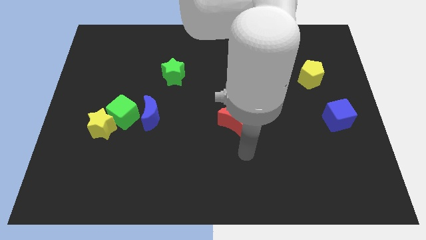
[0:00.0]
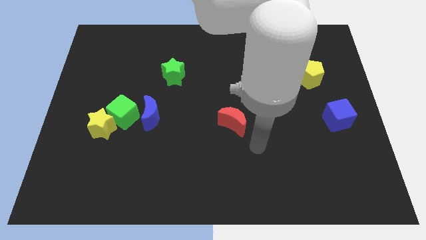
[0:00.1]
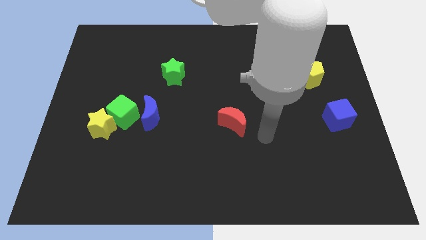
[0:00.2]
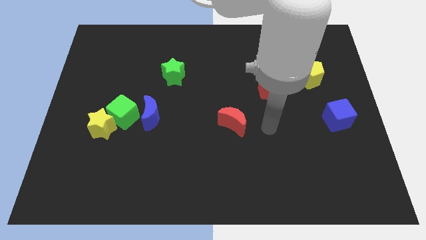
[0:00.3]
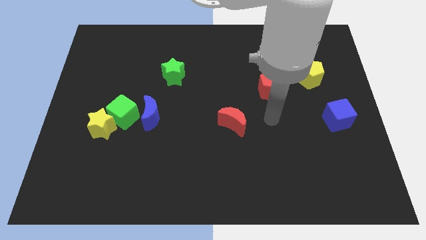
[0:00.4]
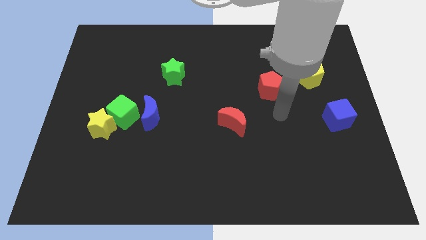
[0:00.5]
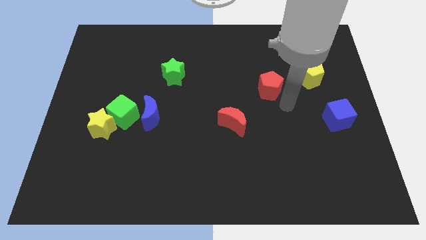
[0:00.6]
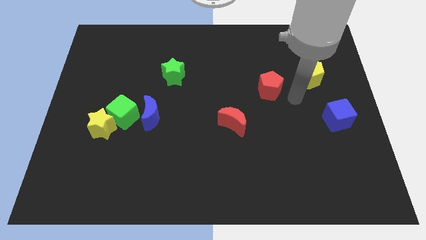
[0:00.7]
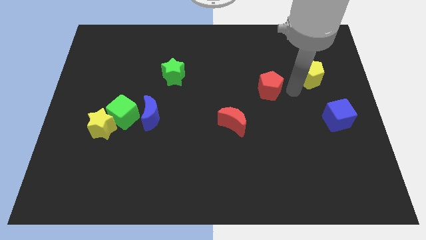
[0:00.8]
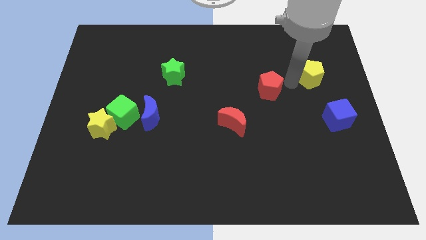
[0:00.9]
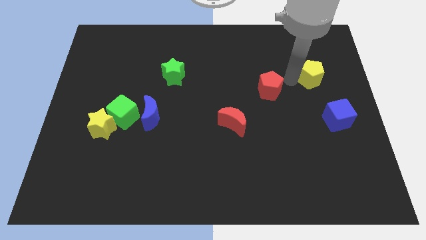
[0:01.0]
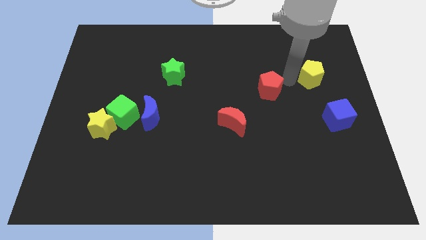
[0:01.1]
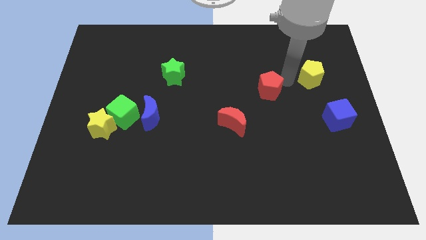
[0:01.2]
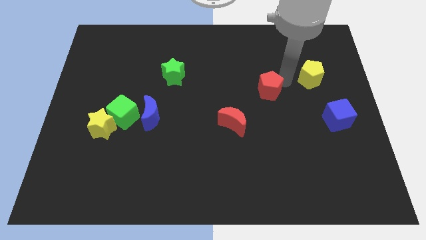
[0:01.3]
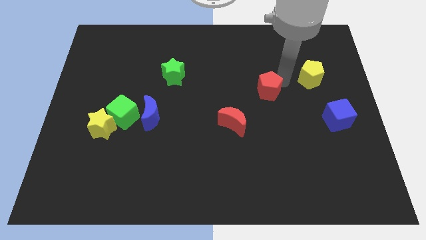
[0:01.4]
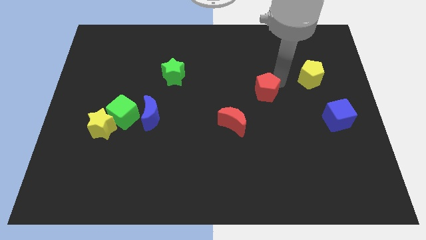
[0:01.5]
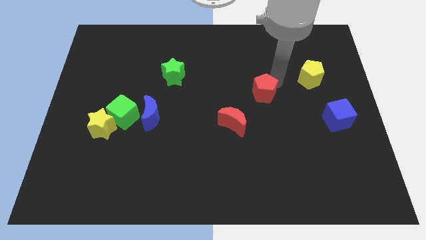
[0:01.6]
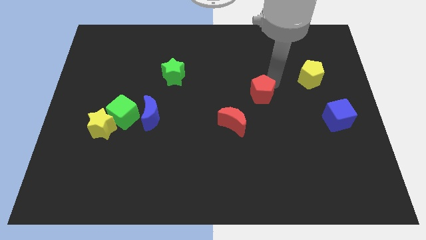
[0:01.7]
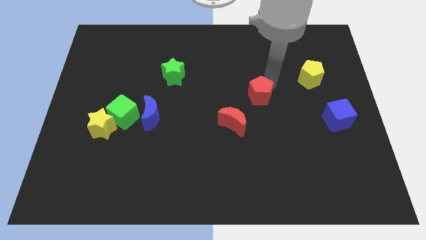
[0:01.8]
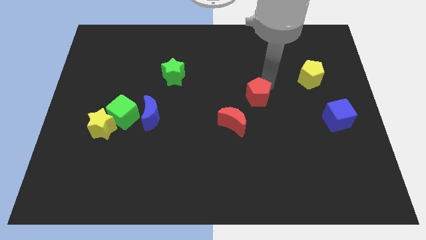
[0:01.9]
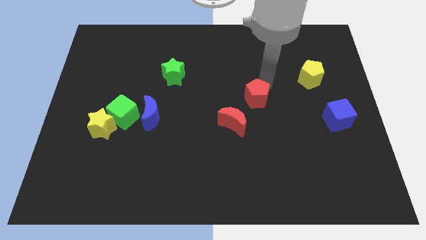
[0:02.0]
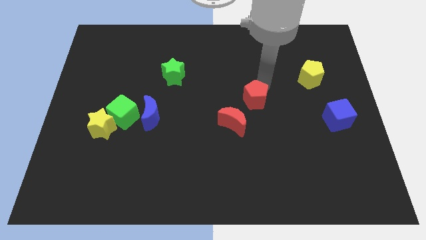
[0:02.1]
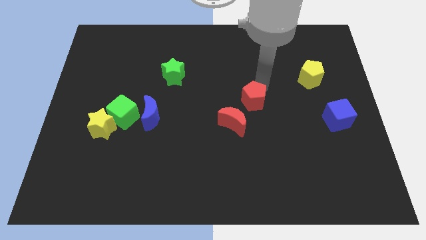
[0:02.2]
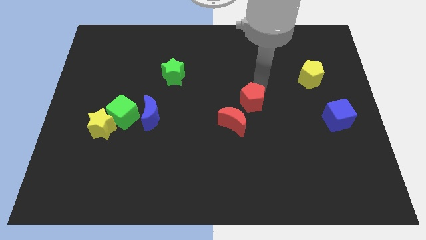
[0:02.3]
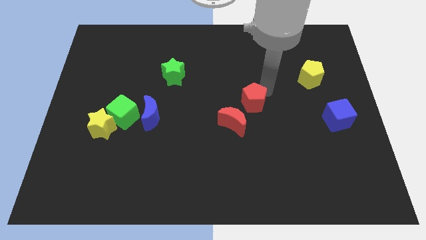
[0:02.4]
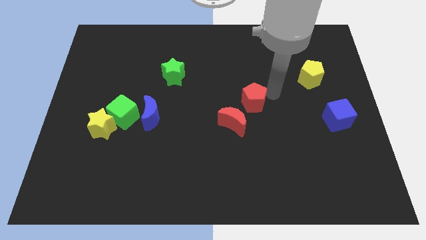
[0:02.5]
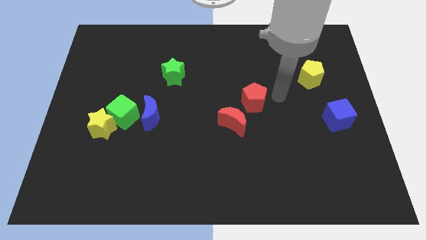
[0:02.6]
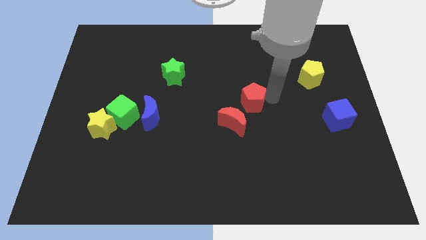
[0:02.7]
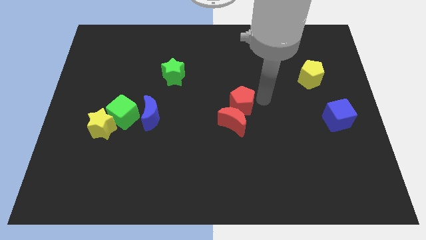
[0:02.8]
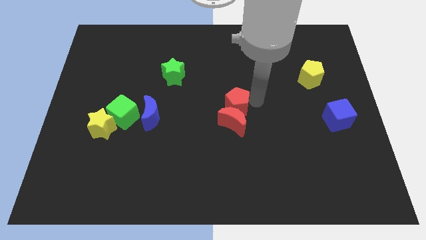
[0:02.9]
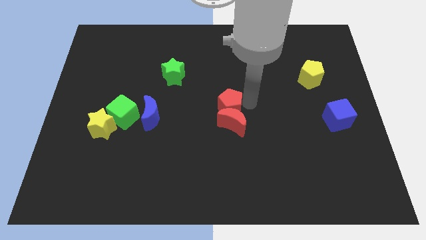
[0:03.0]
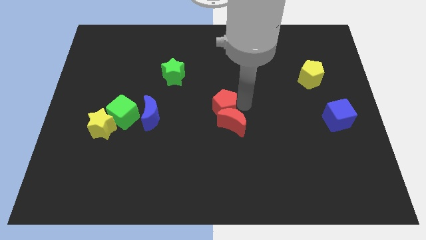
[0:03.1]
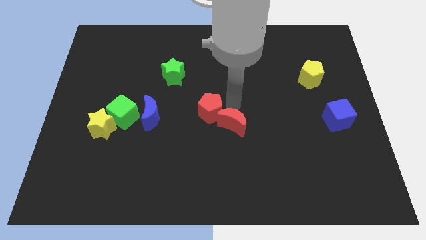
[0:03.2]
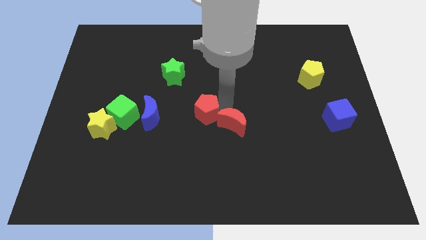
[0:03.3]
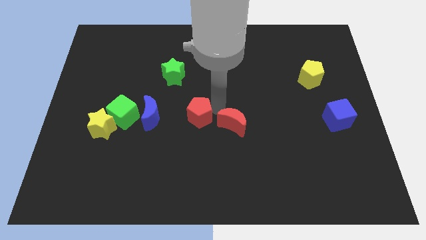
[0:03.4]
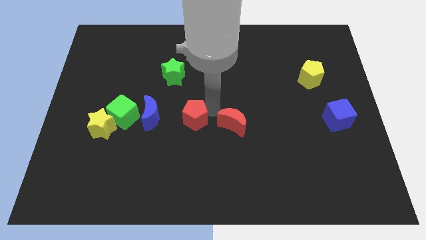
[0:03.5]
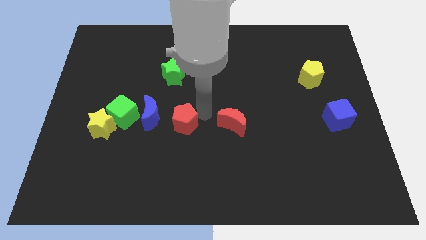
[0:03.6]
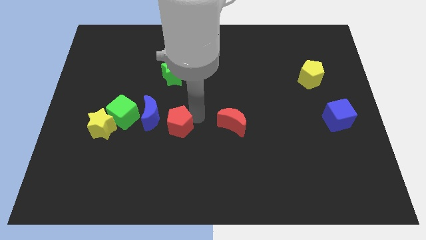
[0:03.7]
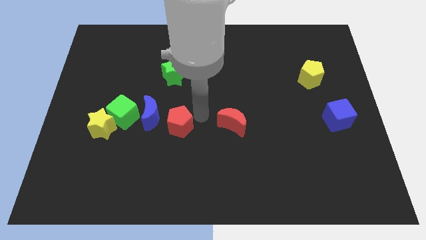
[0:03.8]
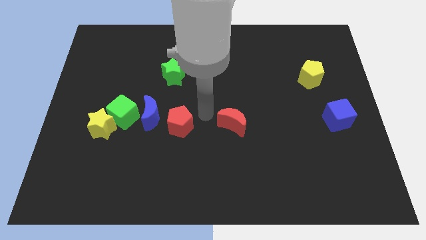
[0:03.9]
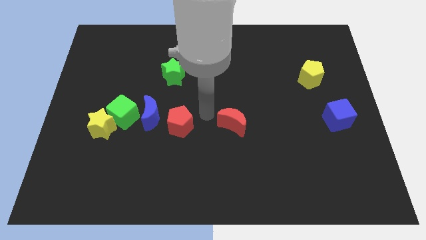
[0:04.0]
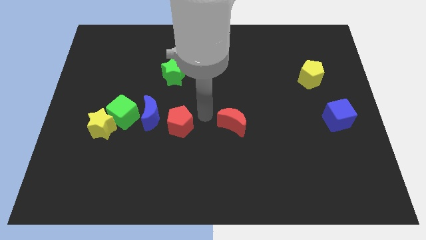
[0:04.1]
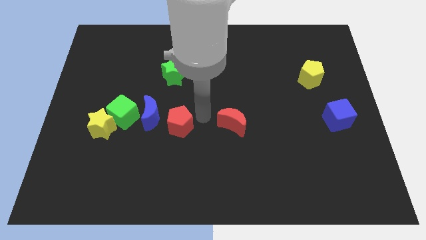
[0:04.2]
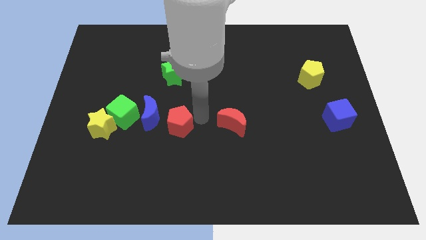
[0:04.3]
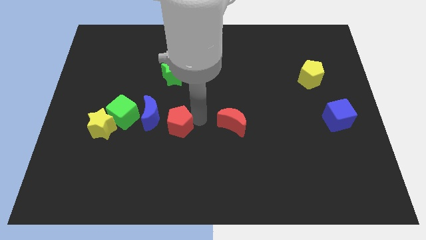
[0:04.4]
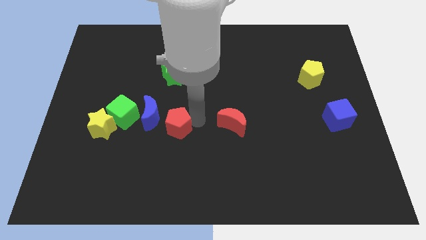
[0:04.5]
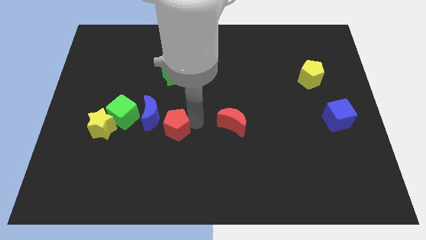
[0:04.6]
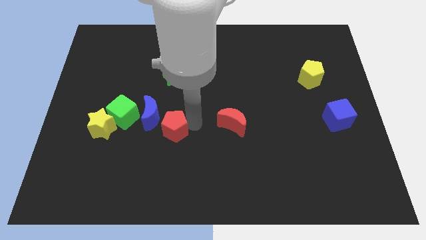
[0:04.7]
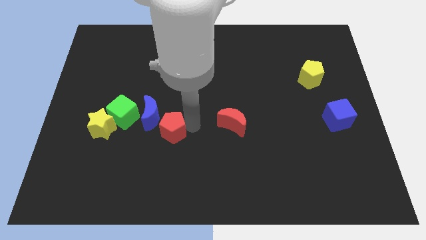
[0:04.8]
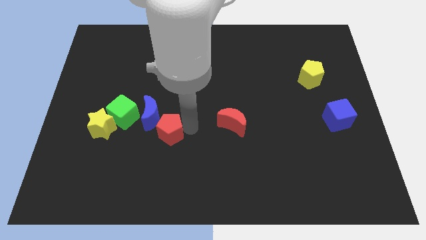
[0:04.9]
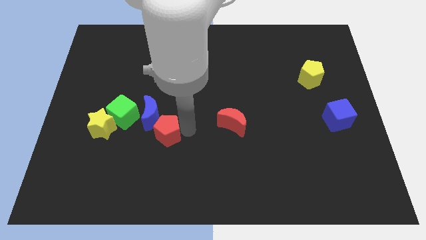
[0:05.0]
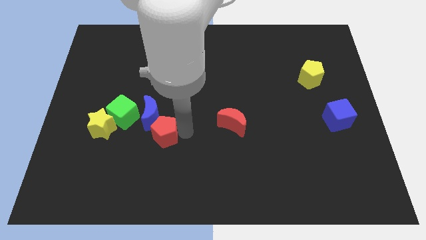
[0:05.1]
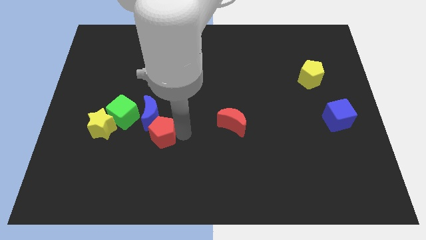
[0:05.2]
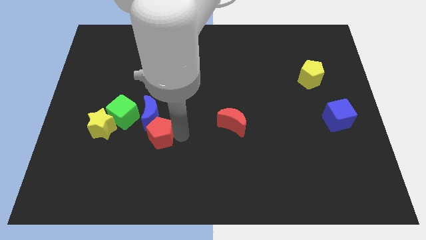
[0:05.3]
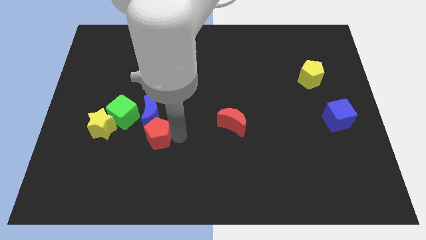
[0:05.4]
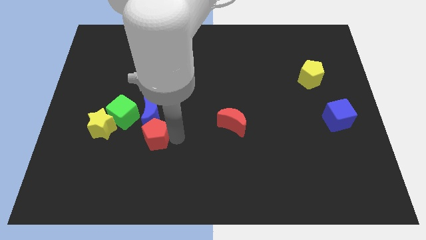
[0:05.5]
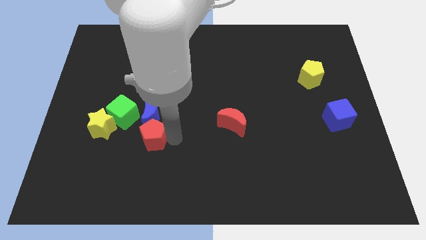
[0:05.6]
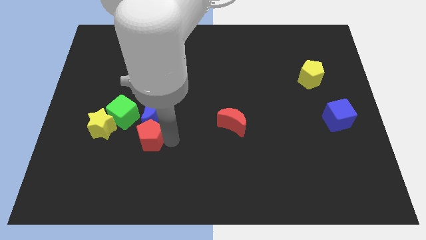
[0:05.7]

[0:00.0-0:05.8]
push the red pentagon diagonally down and to the left of the blue moon

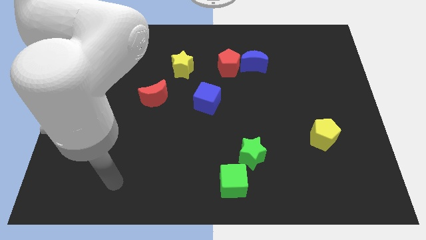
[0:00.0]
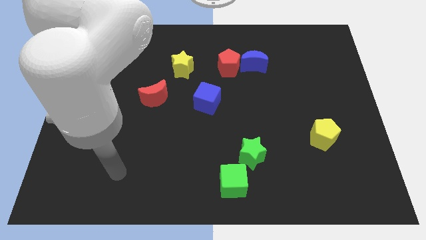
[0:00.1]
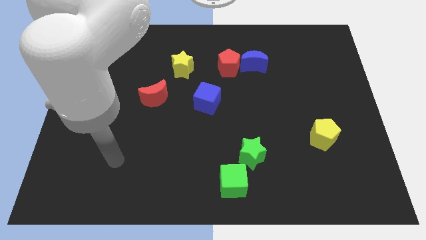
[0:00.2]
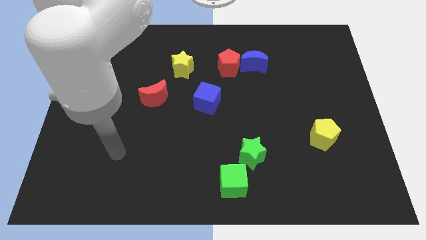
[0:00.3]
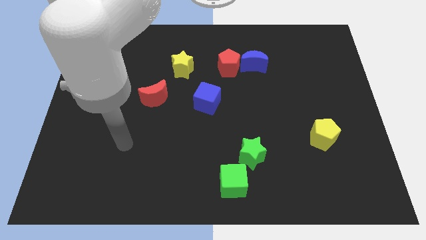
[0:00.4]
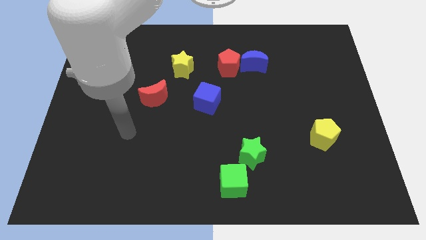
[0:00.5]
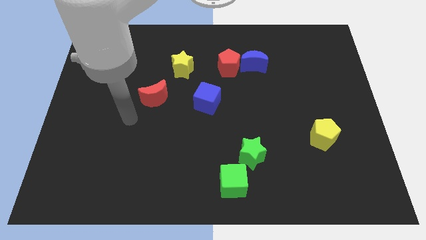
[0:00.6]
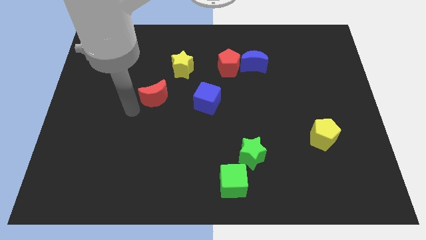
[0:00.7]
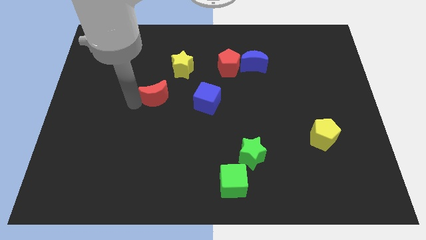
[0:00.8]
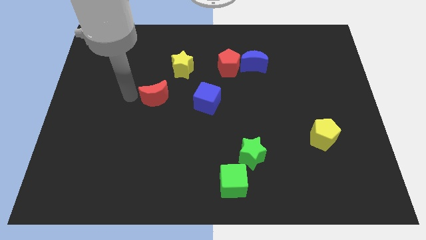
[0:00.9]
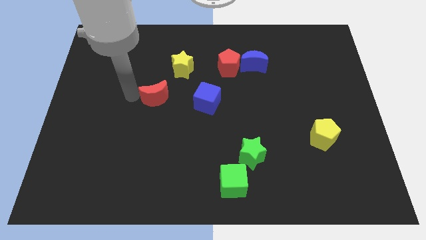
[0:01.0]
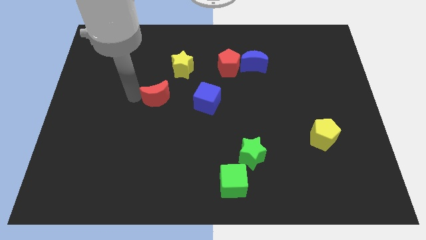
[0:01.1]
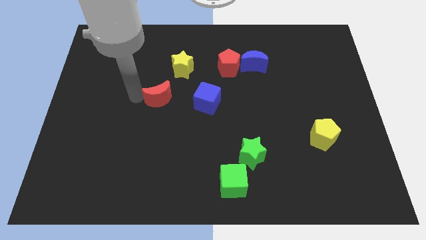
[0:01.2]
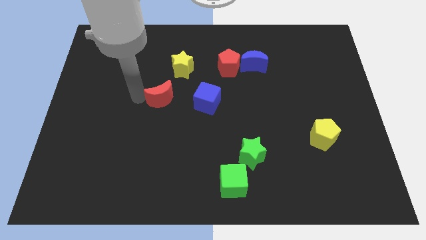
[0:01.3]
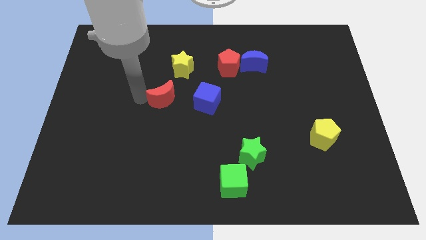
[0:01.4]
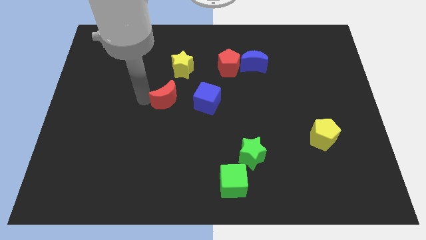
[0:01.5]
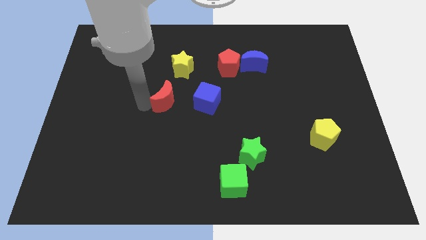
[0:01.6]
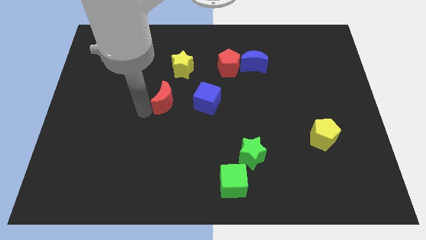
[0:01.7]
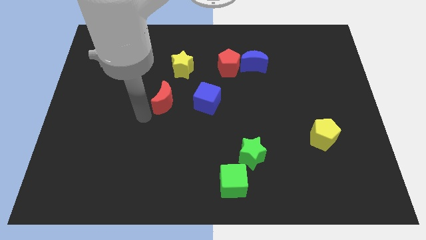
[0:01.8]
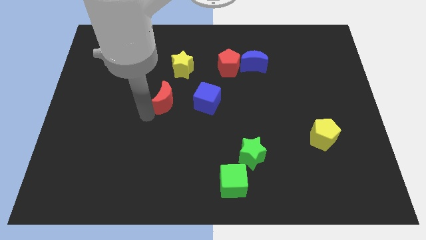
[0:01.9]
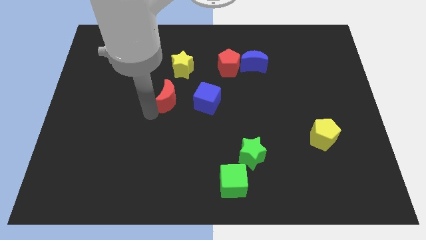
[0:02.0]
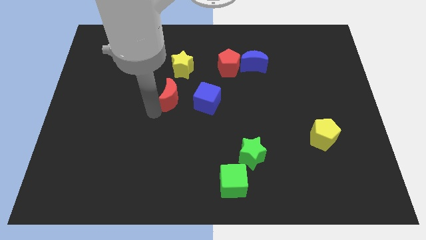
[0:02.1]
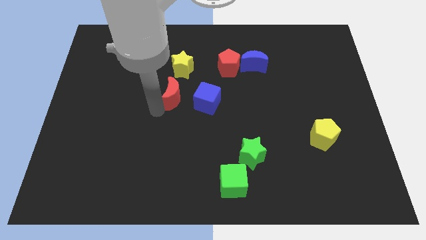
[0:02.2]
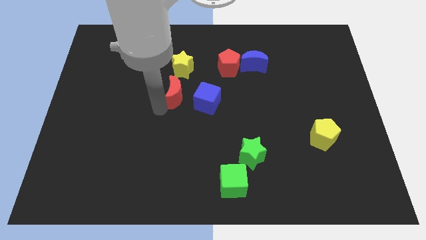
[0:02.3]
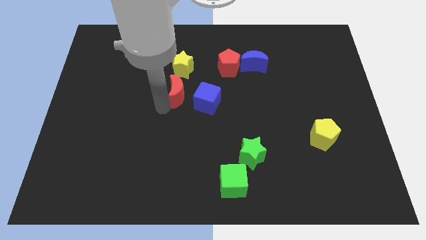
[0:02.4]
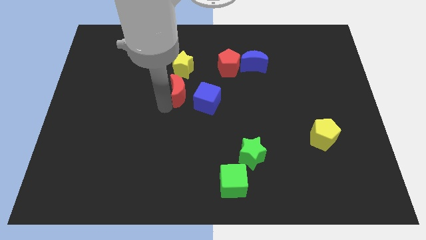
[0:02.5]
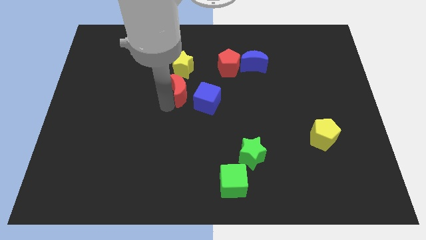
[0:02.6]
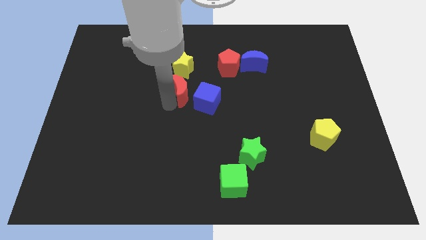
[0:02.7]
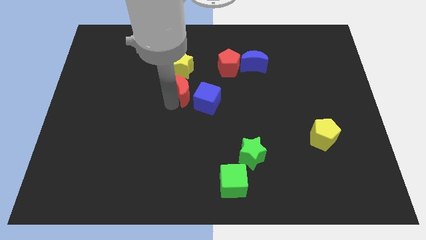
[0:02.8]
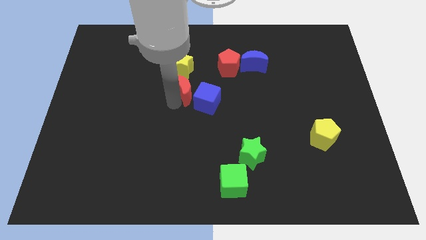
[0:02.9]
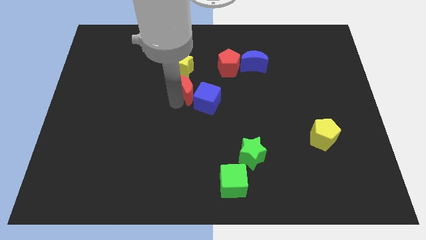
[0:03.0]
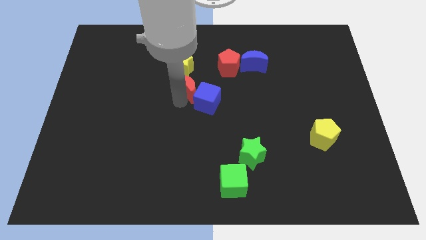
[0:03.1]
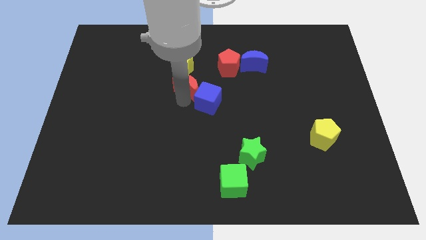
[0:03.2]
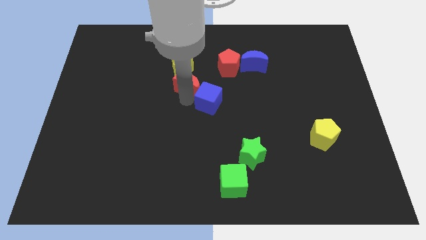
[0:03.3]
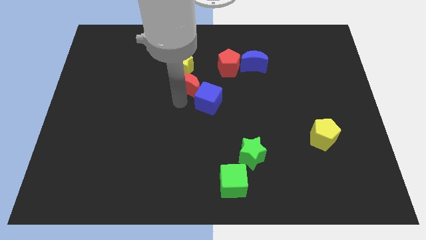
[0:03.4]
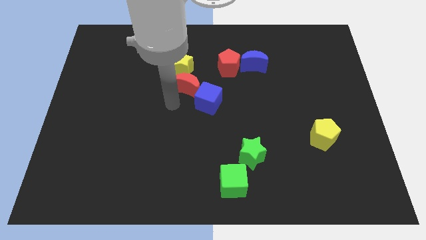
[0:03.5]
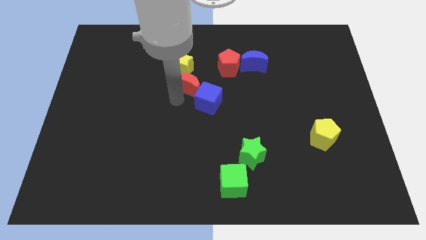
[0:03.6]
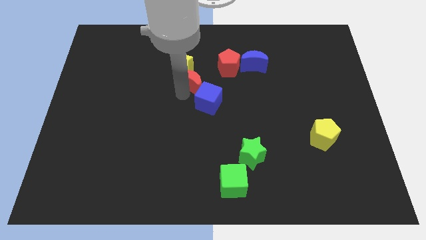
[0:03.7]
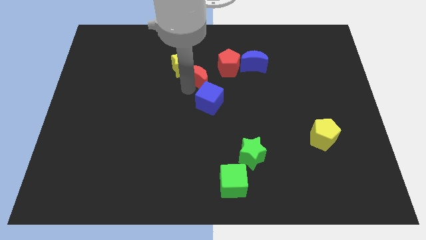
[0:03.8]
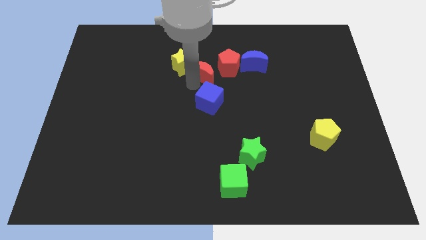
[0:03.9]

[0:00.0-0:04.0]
slide the red moon to the left of the blue moon
